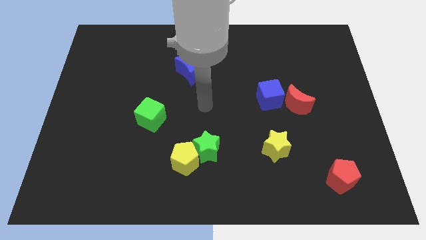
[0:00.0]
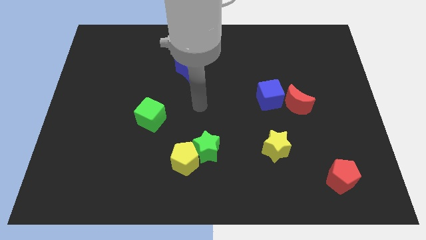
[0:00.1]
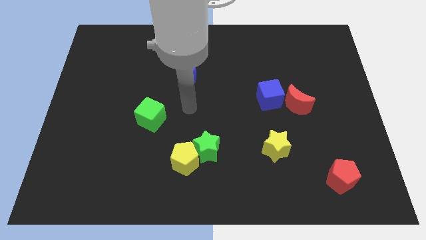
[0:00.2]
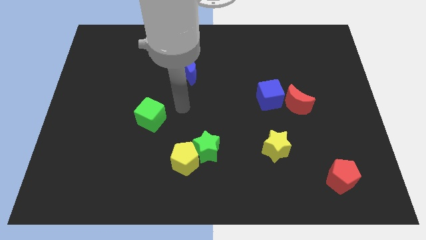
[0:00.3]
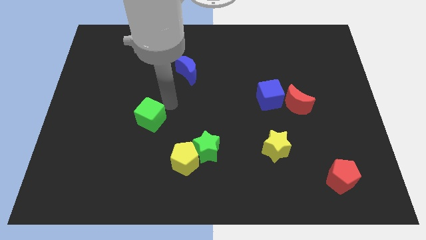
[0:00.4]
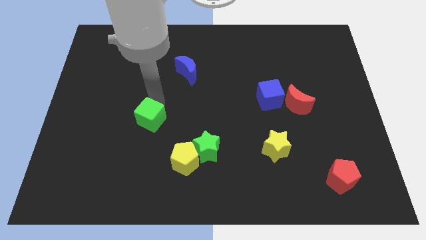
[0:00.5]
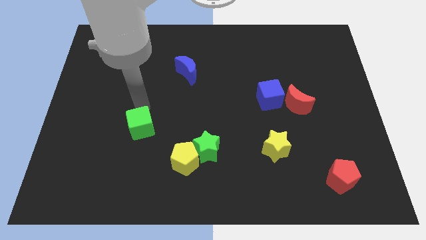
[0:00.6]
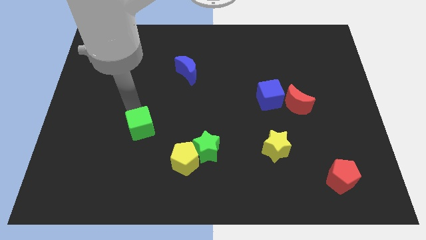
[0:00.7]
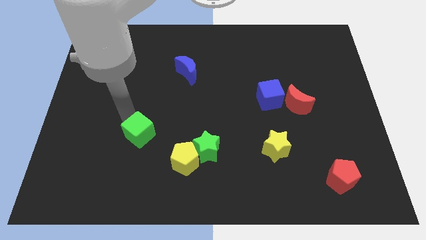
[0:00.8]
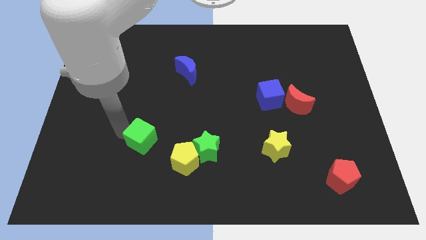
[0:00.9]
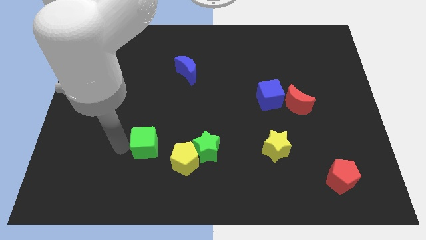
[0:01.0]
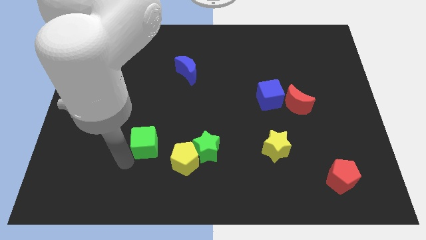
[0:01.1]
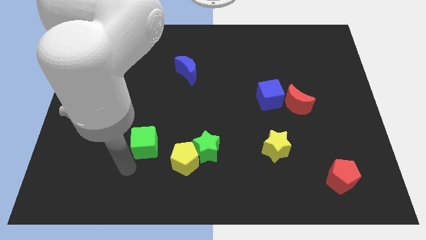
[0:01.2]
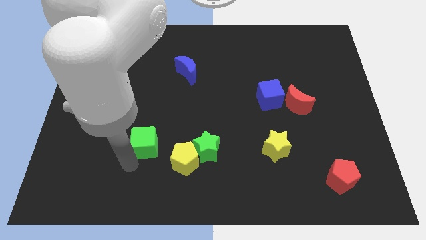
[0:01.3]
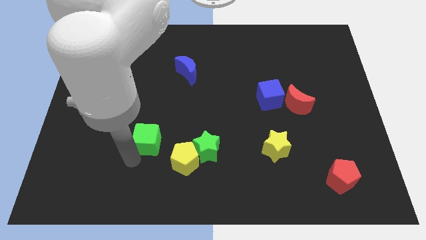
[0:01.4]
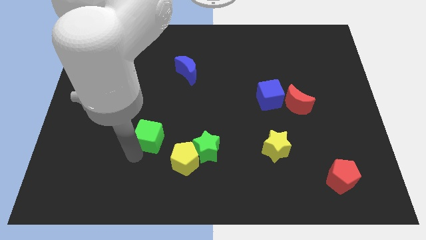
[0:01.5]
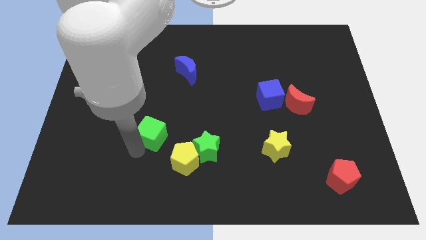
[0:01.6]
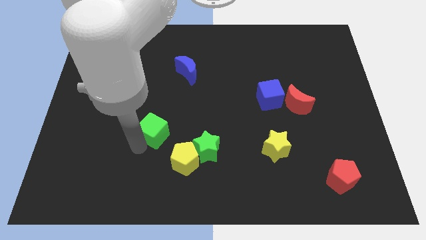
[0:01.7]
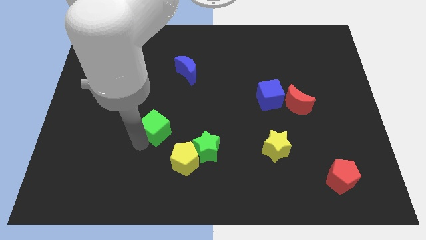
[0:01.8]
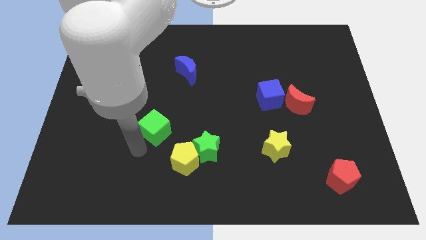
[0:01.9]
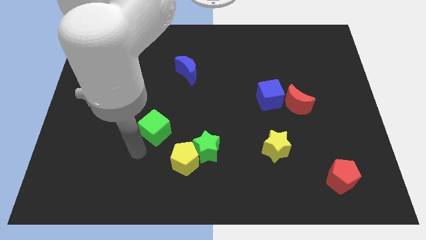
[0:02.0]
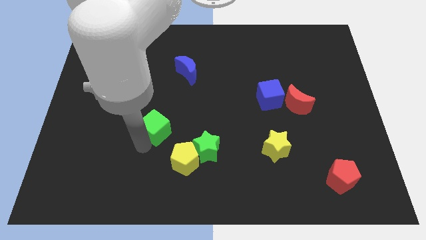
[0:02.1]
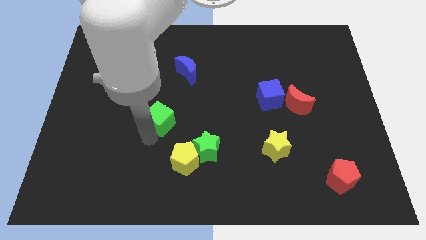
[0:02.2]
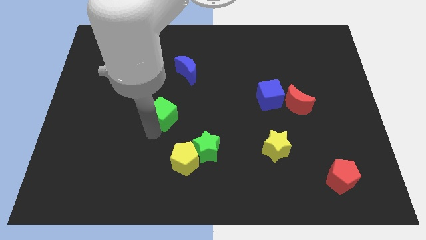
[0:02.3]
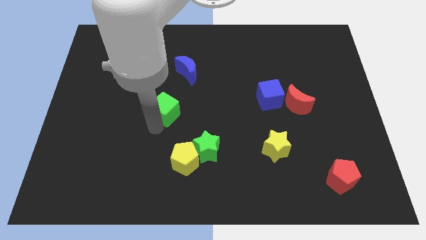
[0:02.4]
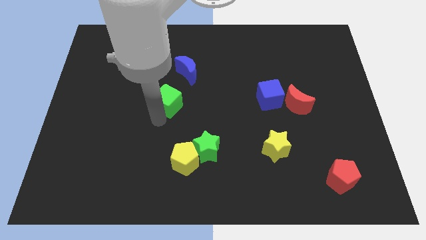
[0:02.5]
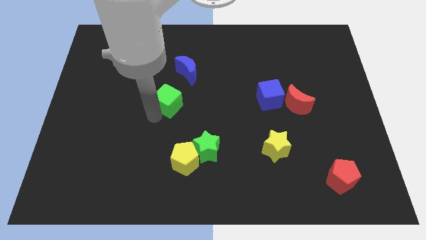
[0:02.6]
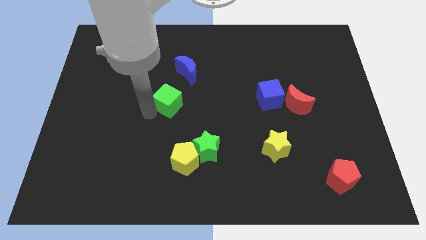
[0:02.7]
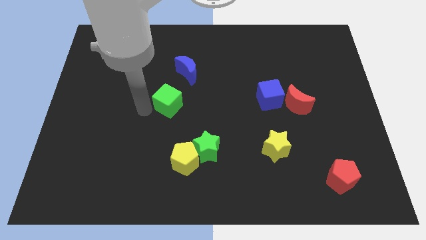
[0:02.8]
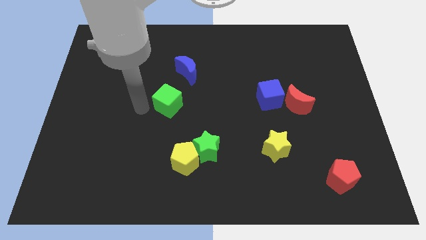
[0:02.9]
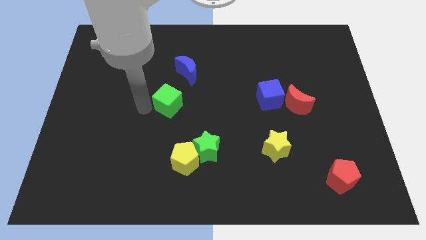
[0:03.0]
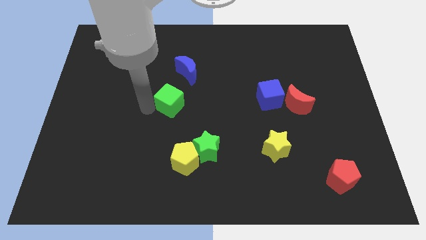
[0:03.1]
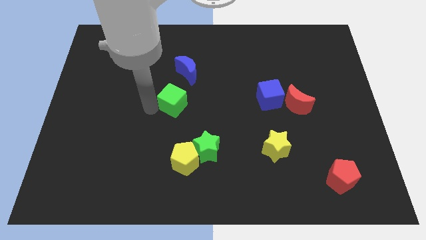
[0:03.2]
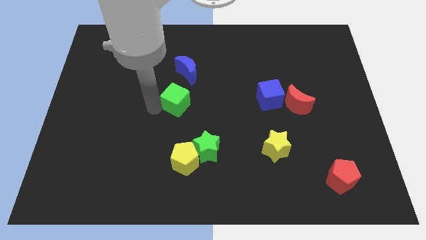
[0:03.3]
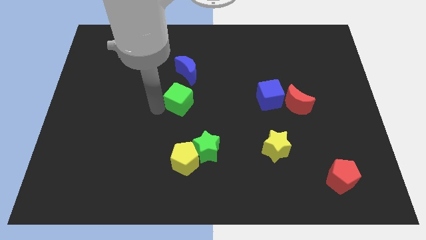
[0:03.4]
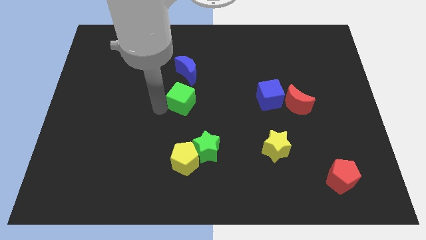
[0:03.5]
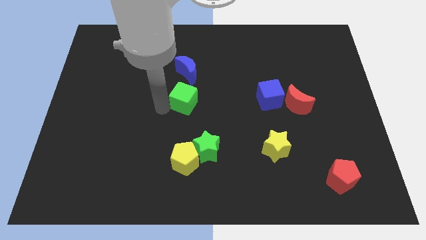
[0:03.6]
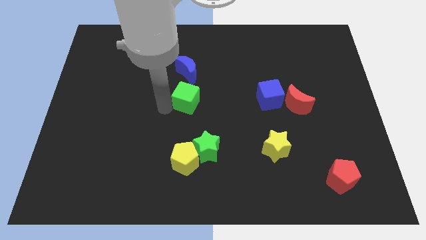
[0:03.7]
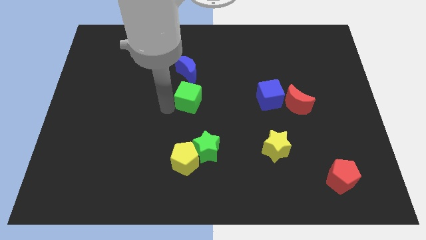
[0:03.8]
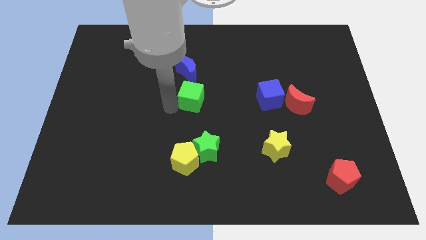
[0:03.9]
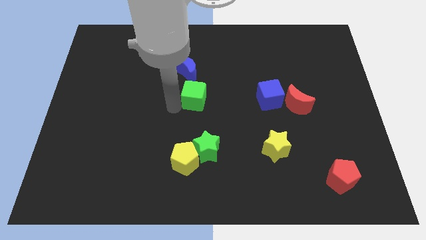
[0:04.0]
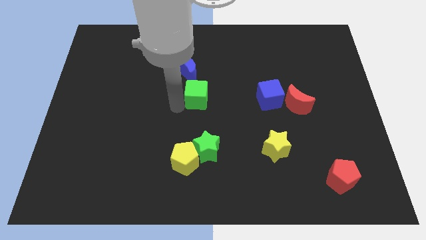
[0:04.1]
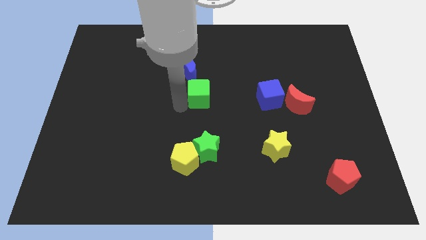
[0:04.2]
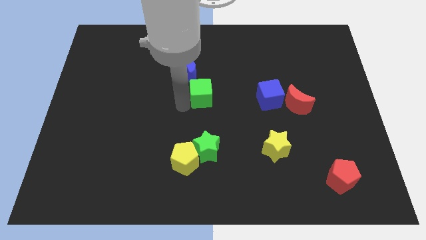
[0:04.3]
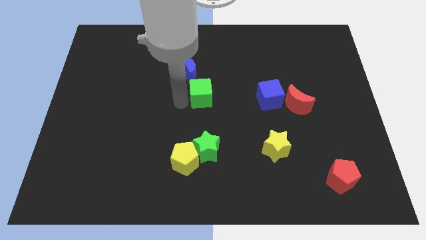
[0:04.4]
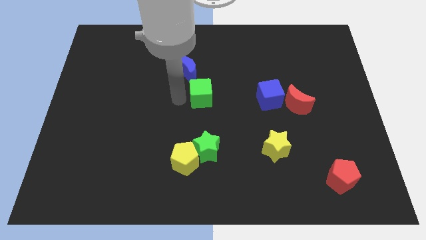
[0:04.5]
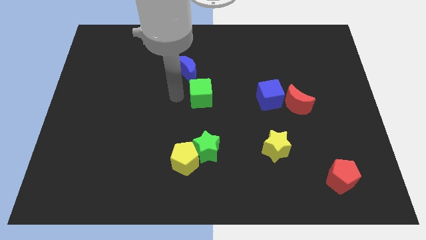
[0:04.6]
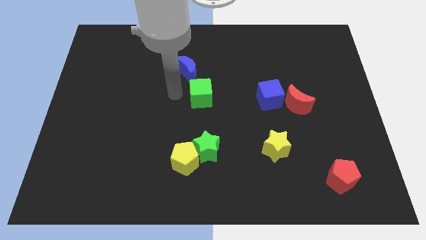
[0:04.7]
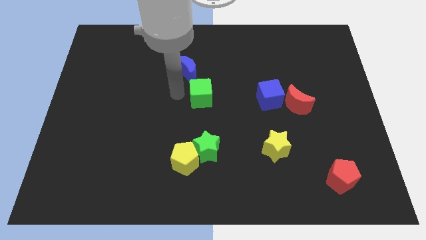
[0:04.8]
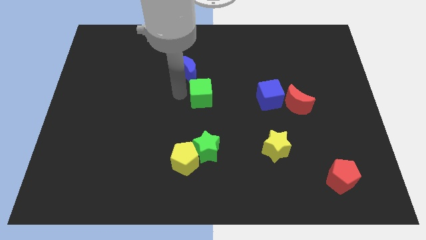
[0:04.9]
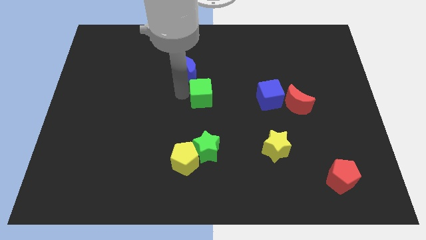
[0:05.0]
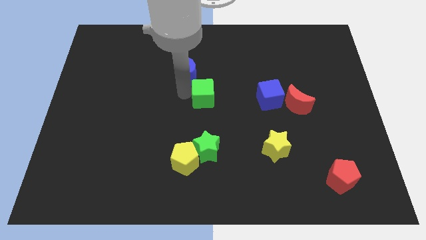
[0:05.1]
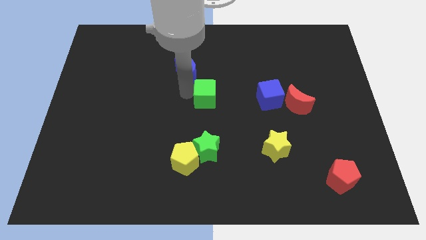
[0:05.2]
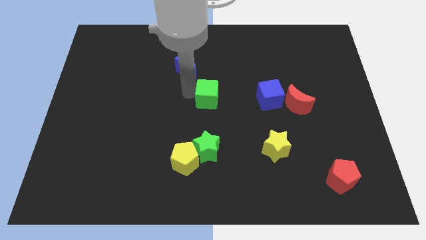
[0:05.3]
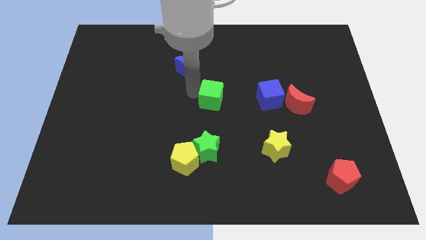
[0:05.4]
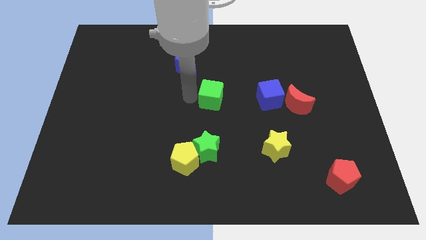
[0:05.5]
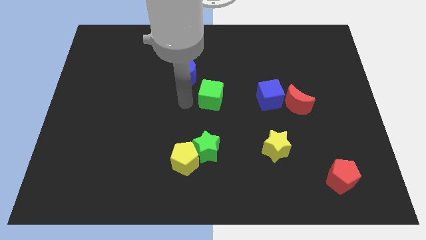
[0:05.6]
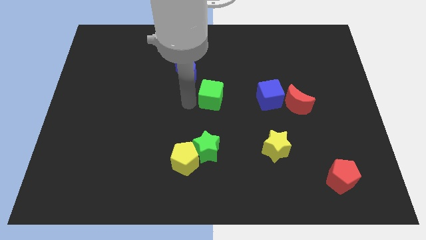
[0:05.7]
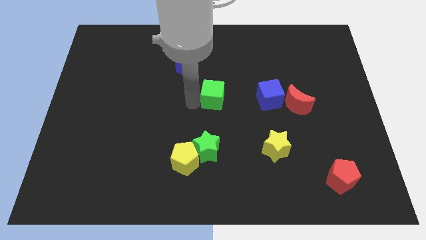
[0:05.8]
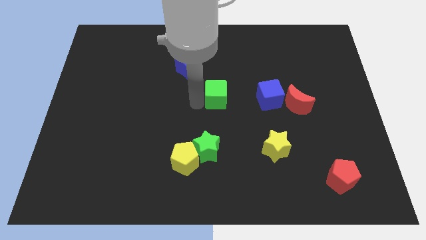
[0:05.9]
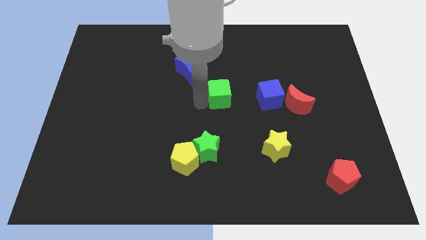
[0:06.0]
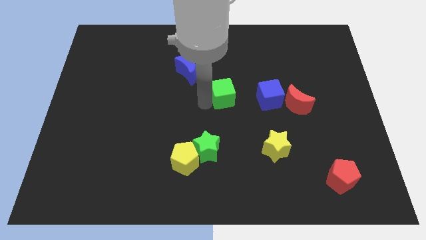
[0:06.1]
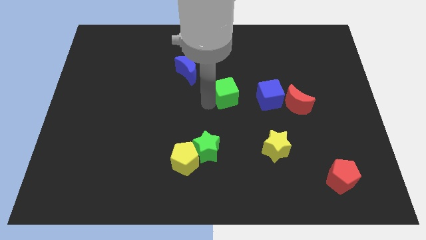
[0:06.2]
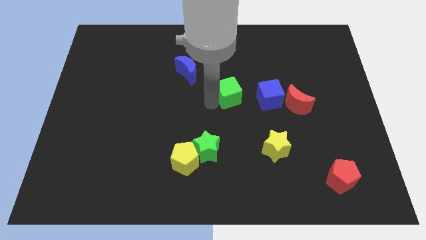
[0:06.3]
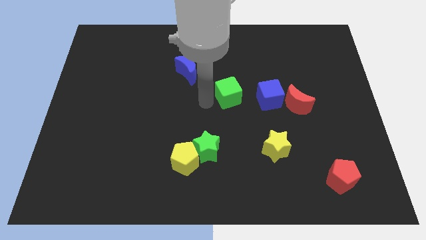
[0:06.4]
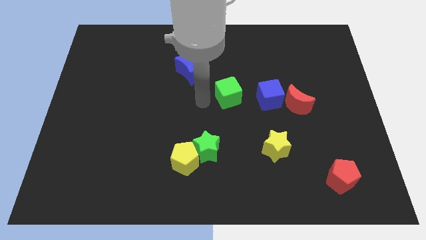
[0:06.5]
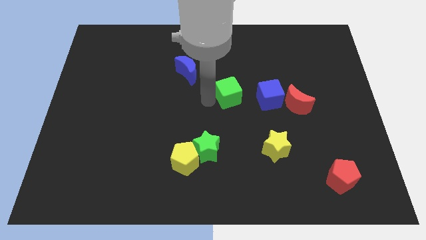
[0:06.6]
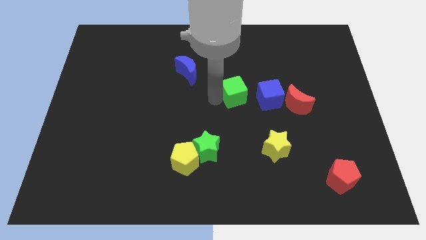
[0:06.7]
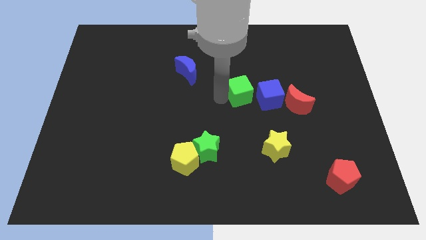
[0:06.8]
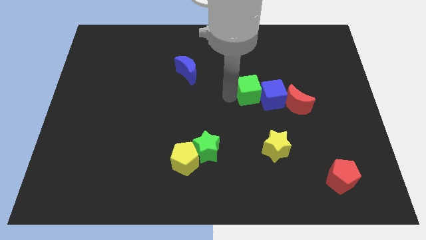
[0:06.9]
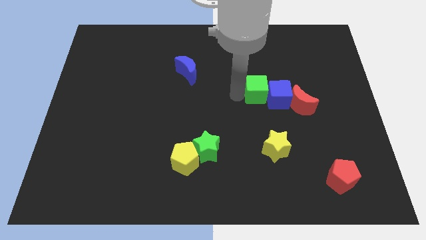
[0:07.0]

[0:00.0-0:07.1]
slide the green cube to the top left side of the red moon
